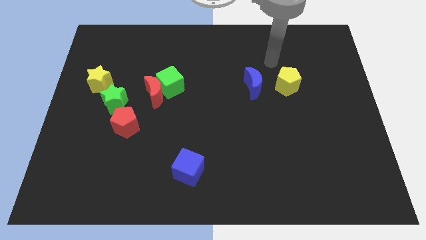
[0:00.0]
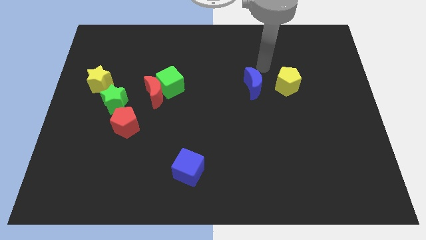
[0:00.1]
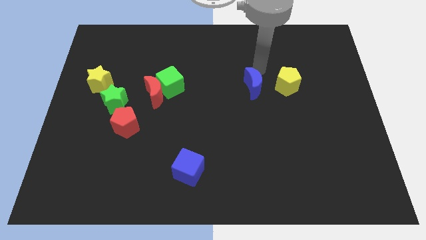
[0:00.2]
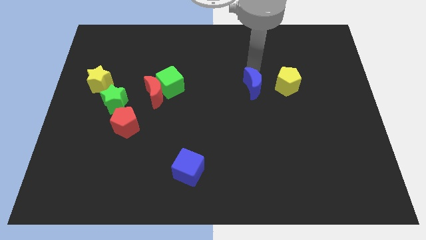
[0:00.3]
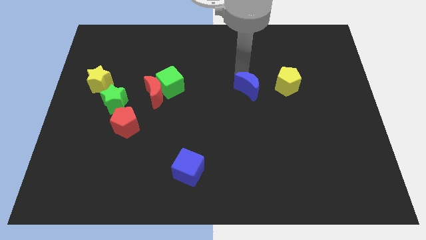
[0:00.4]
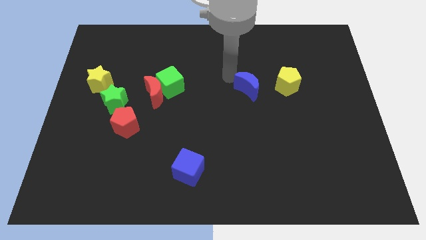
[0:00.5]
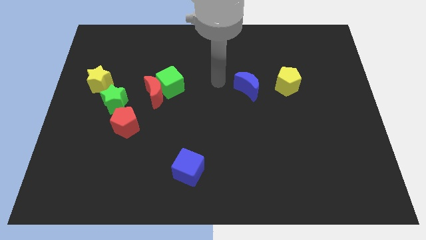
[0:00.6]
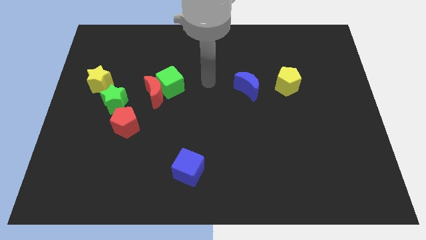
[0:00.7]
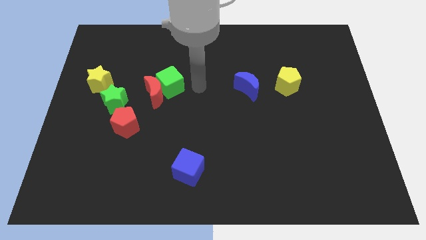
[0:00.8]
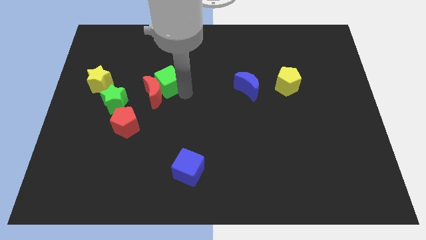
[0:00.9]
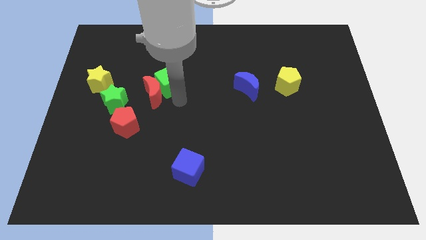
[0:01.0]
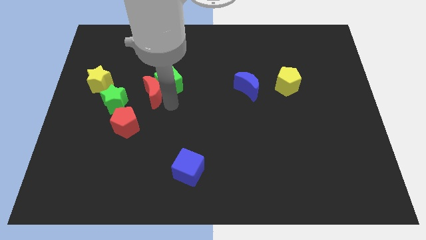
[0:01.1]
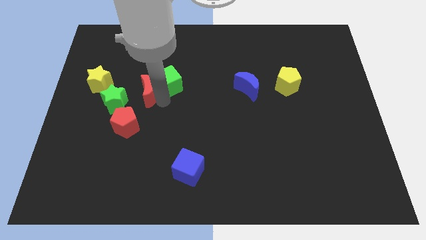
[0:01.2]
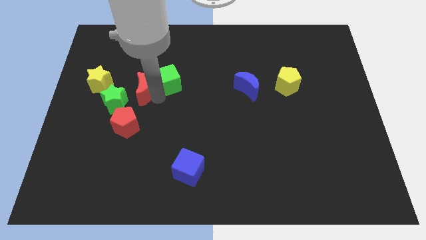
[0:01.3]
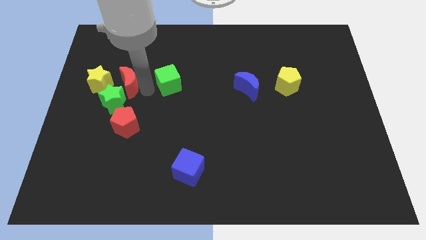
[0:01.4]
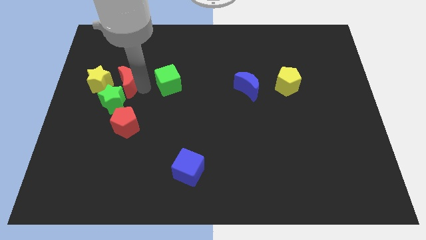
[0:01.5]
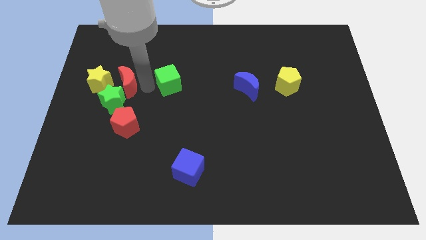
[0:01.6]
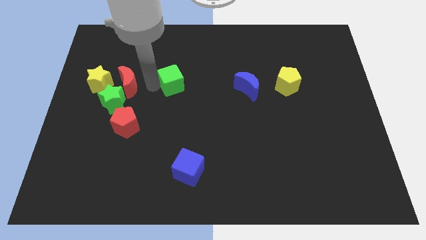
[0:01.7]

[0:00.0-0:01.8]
move the green cube away from the red moon

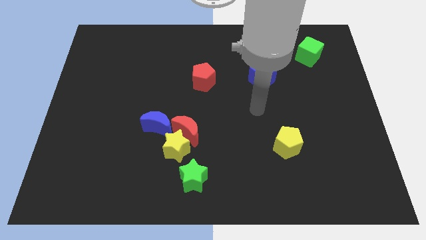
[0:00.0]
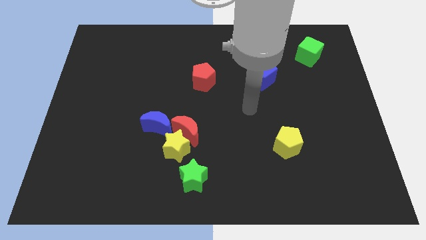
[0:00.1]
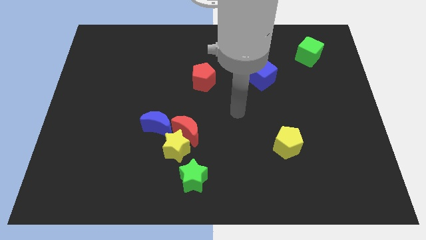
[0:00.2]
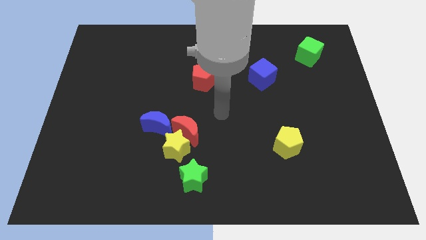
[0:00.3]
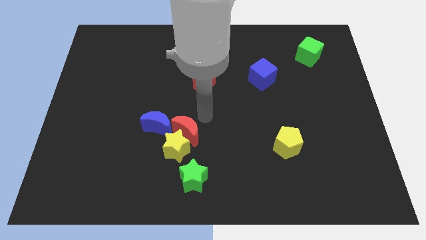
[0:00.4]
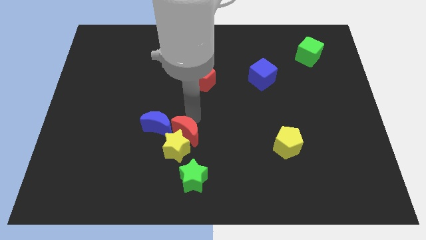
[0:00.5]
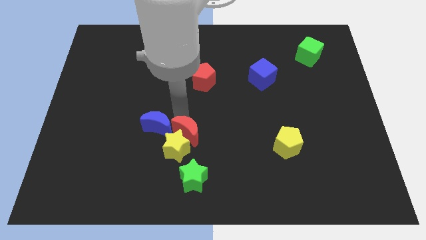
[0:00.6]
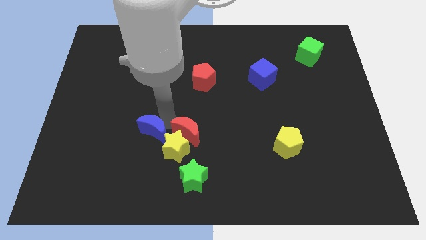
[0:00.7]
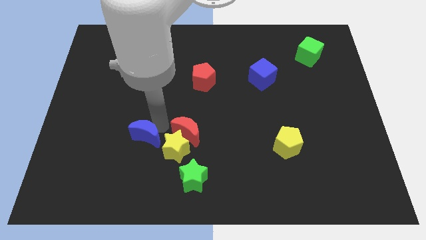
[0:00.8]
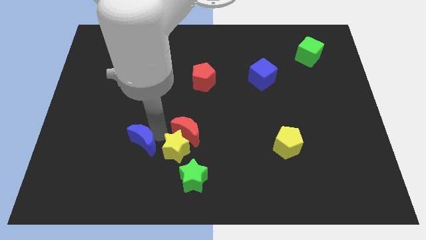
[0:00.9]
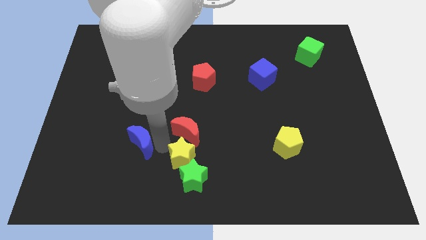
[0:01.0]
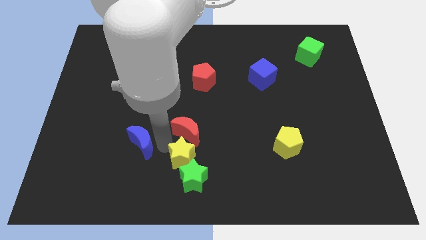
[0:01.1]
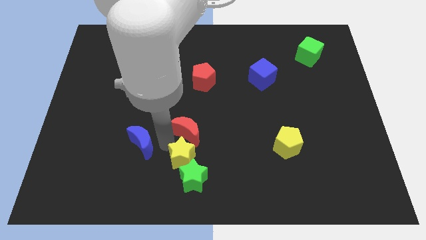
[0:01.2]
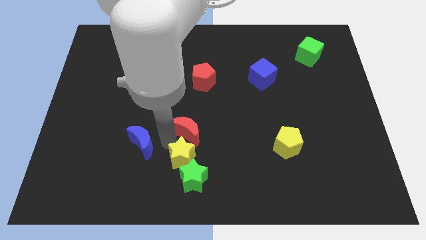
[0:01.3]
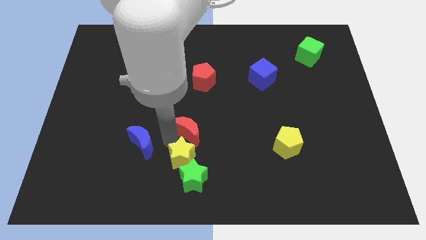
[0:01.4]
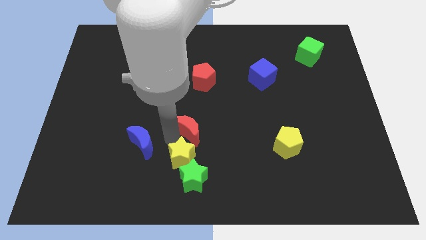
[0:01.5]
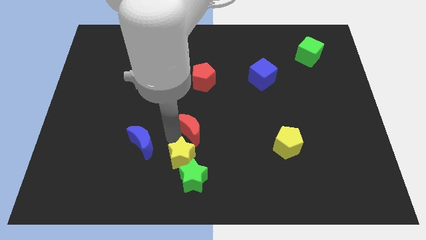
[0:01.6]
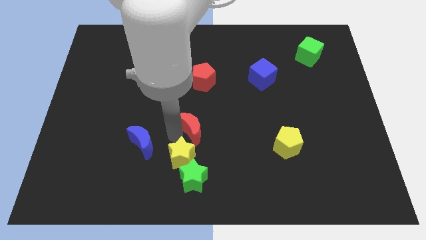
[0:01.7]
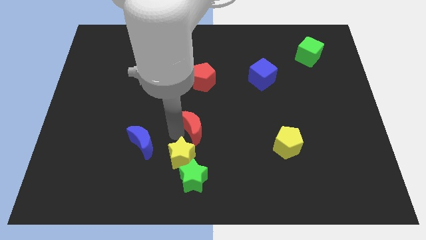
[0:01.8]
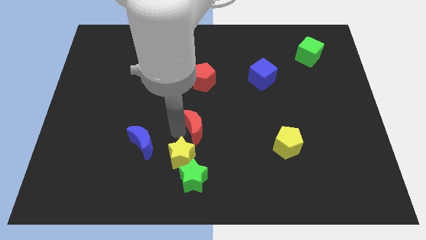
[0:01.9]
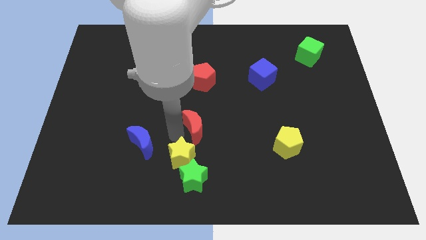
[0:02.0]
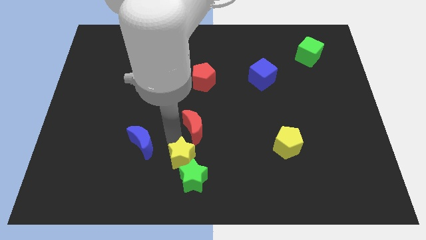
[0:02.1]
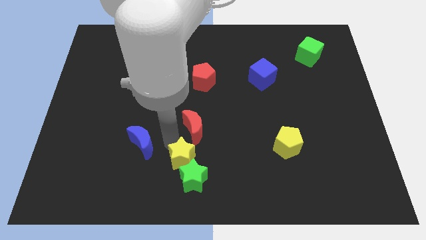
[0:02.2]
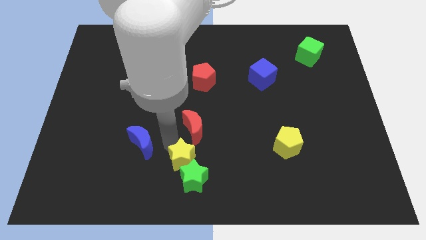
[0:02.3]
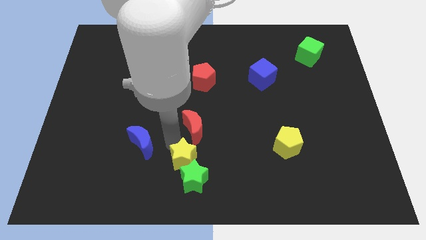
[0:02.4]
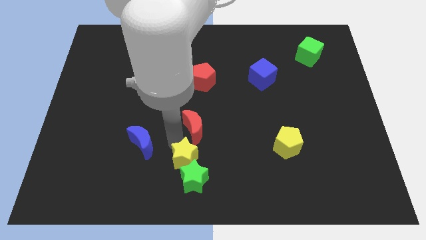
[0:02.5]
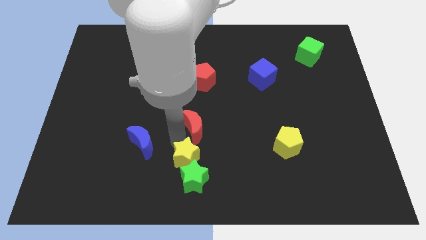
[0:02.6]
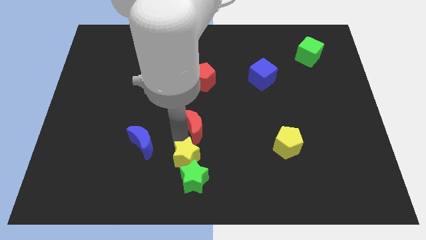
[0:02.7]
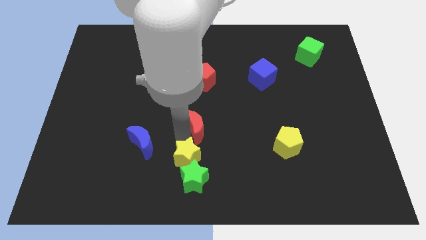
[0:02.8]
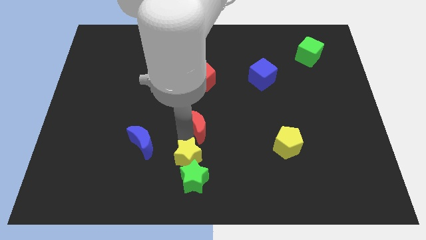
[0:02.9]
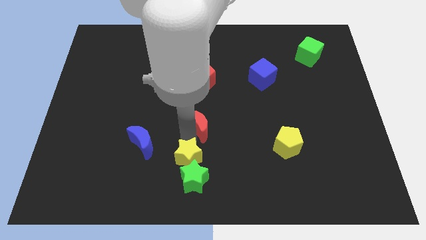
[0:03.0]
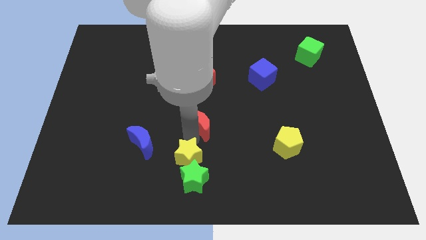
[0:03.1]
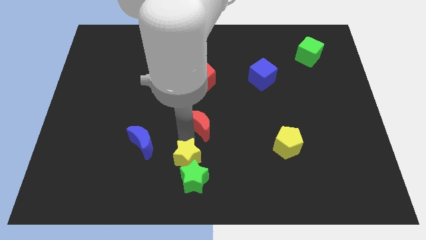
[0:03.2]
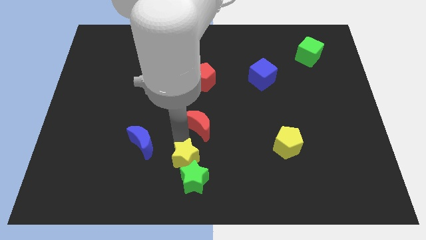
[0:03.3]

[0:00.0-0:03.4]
separate the red moon from the yellow star and blue moon

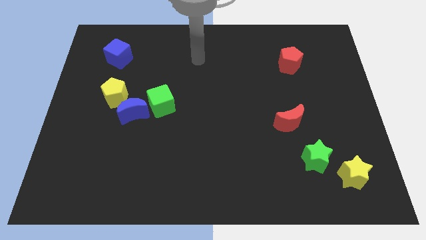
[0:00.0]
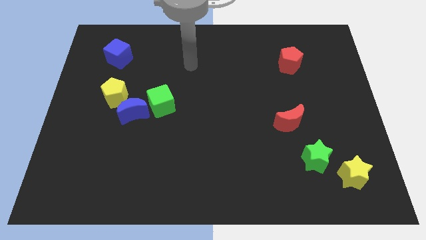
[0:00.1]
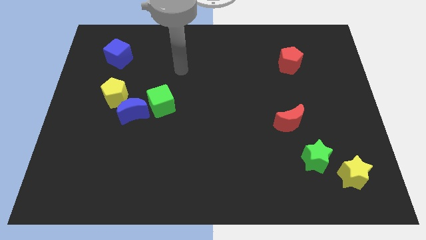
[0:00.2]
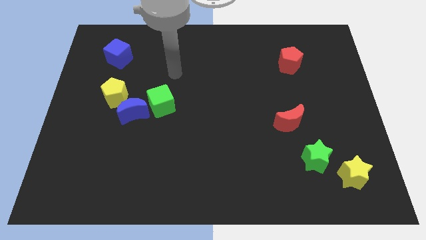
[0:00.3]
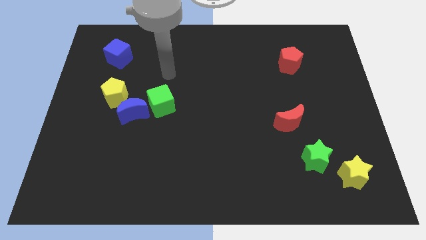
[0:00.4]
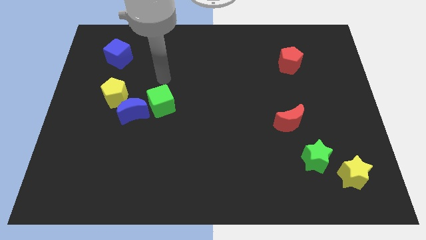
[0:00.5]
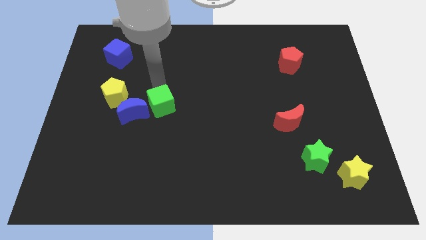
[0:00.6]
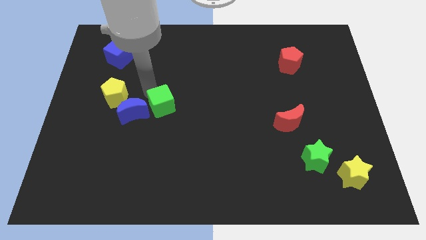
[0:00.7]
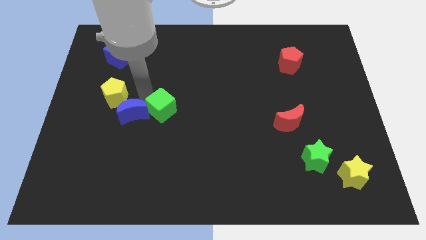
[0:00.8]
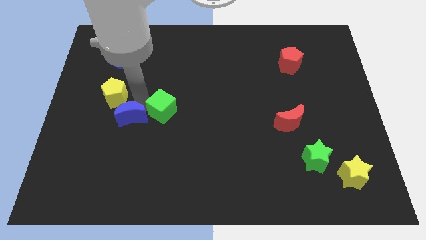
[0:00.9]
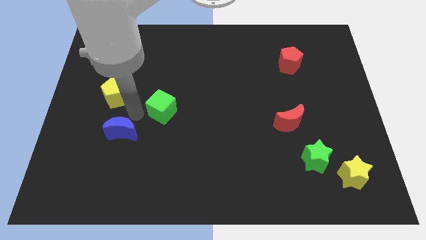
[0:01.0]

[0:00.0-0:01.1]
pull the green cube apart from the blue moon

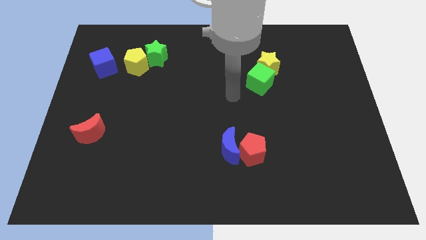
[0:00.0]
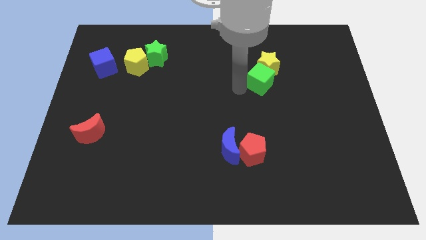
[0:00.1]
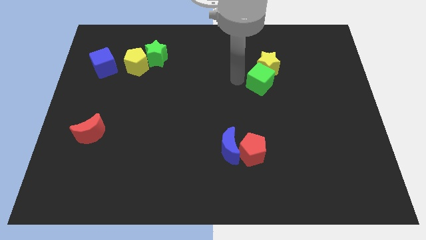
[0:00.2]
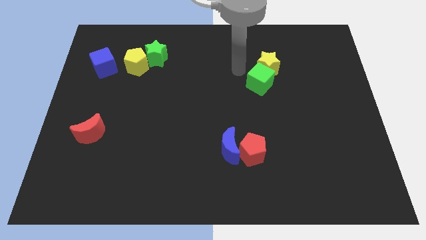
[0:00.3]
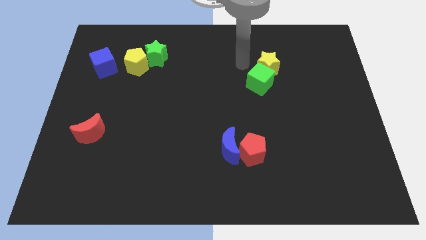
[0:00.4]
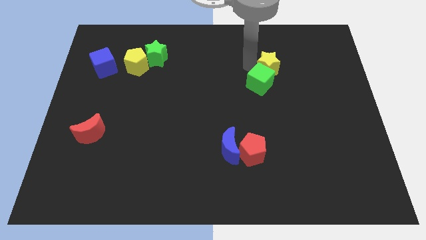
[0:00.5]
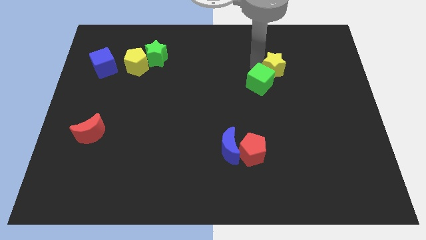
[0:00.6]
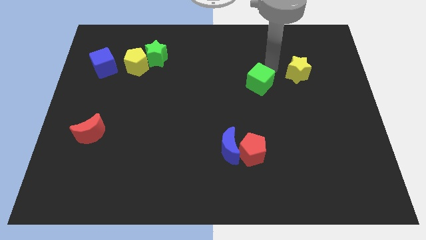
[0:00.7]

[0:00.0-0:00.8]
pull the green cube apart from the yellow star

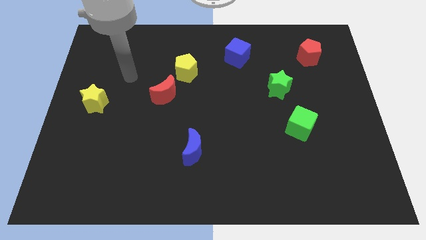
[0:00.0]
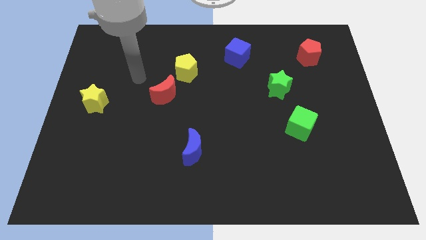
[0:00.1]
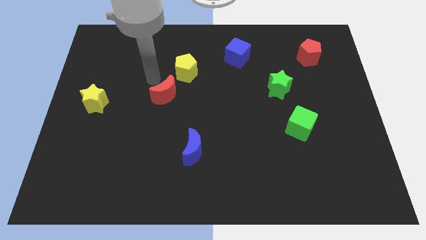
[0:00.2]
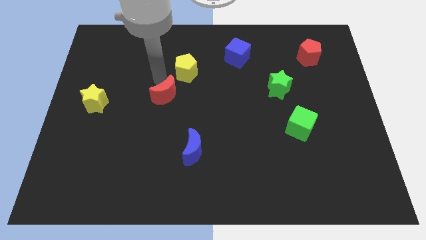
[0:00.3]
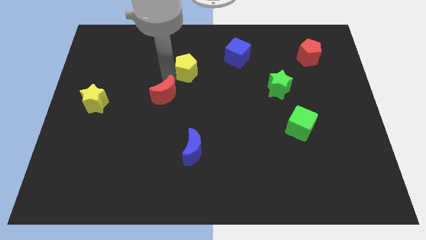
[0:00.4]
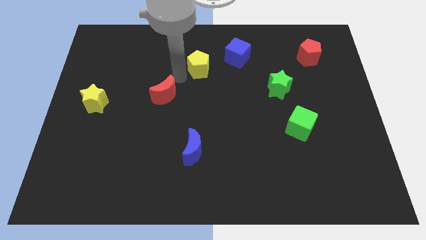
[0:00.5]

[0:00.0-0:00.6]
separate the red moon from the yellow pentagon

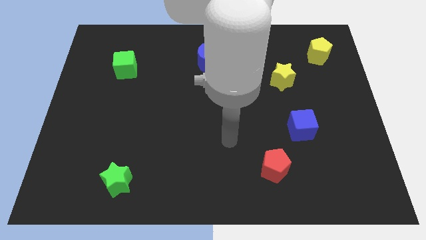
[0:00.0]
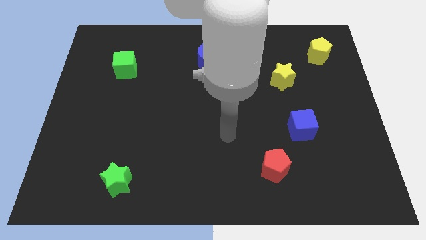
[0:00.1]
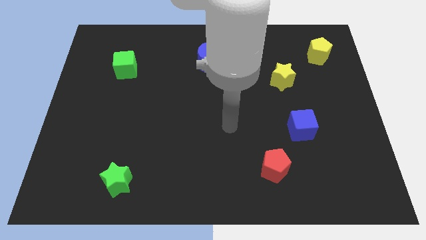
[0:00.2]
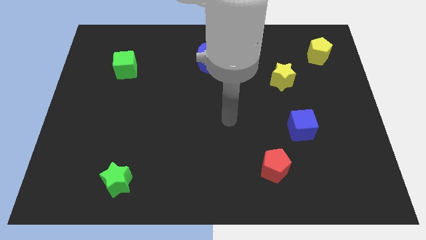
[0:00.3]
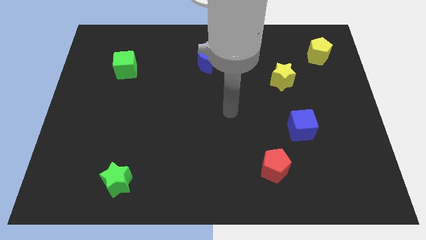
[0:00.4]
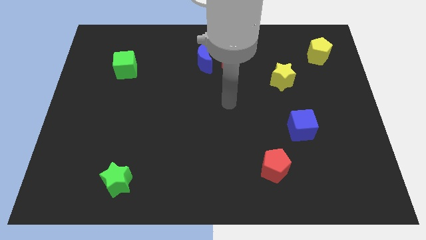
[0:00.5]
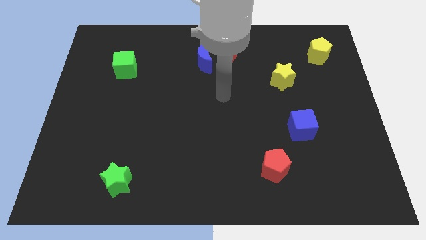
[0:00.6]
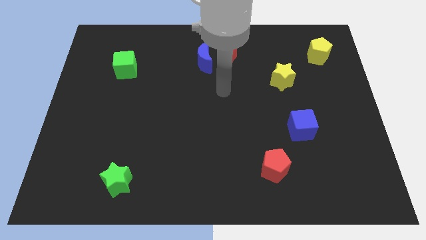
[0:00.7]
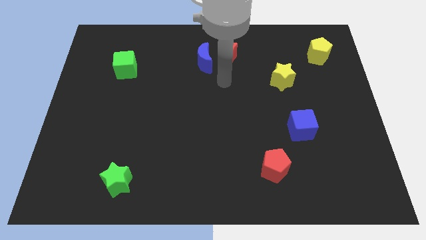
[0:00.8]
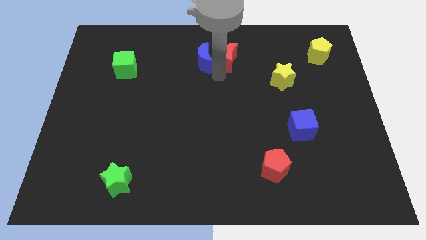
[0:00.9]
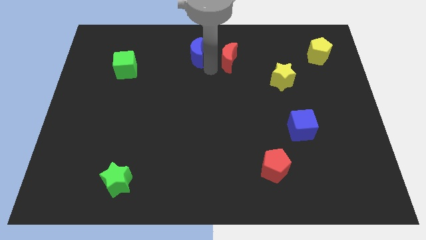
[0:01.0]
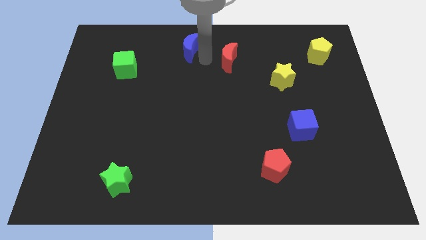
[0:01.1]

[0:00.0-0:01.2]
move the red moon away from the blue moon

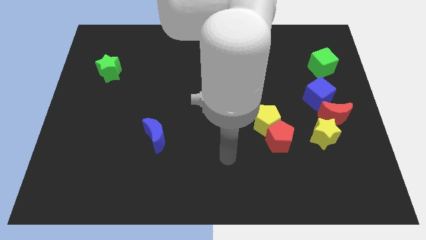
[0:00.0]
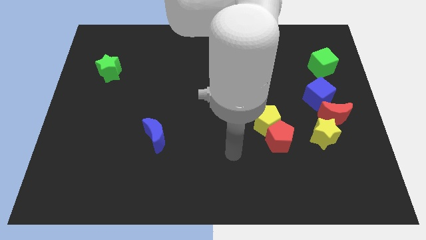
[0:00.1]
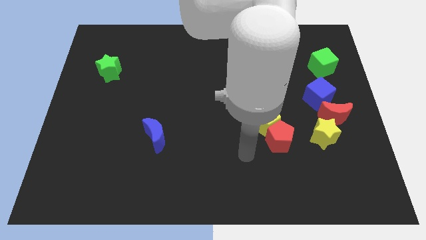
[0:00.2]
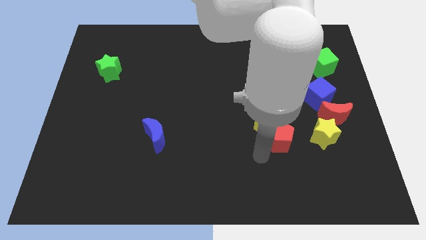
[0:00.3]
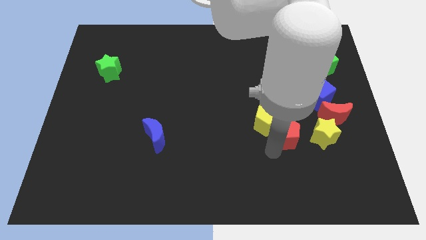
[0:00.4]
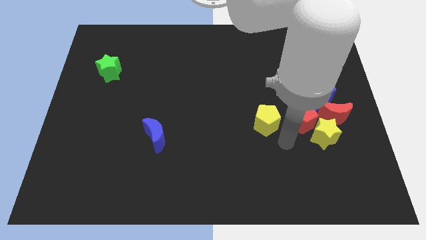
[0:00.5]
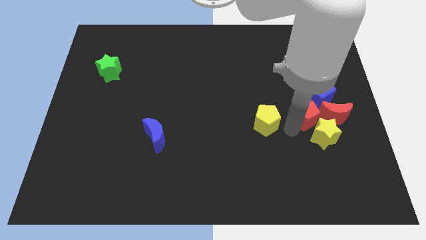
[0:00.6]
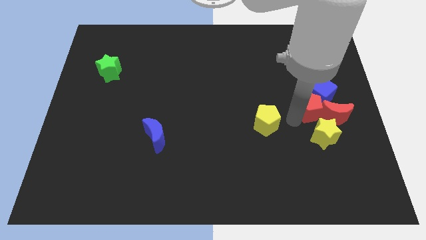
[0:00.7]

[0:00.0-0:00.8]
move the yellow pentagon away from the red pentagon
